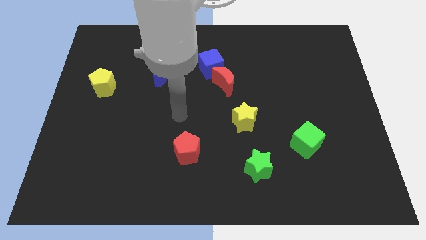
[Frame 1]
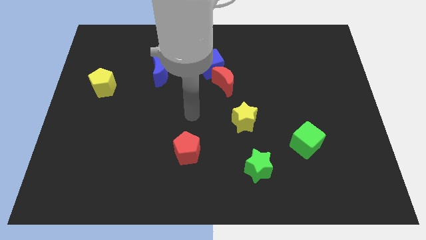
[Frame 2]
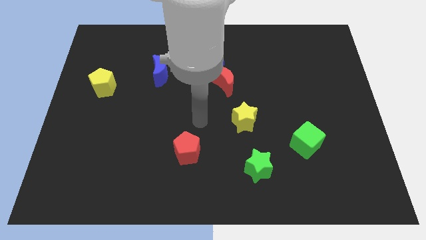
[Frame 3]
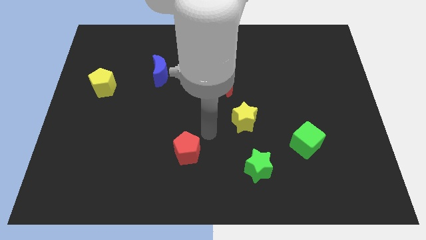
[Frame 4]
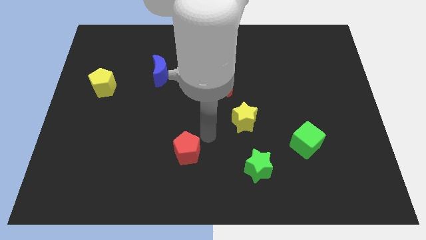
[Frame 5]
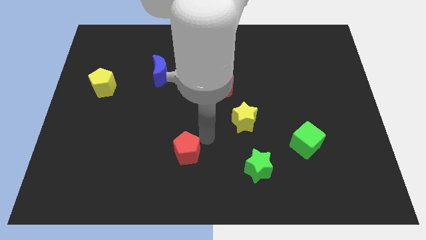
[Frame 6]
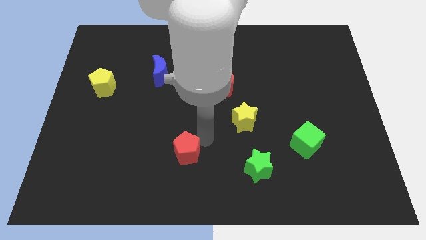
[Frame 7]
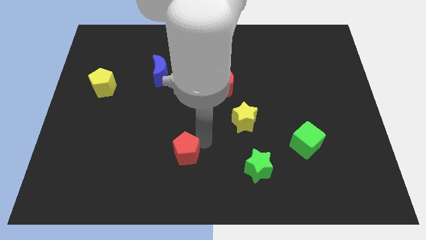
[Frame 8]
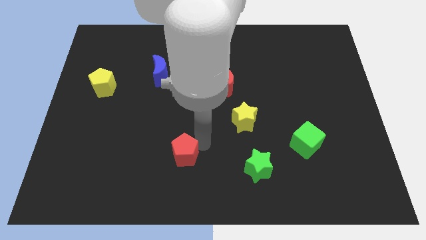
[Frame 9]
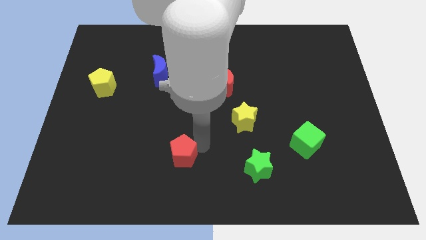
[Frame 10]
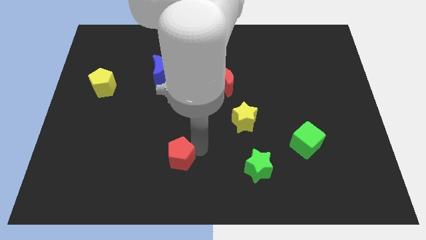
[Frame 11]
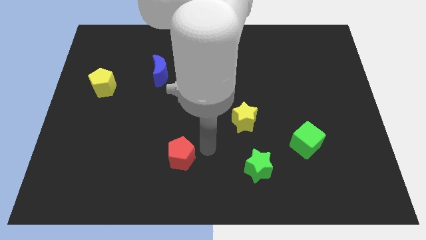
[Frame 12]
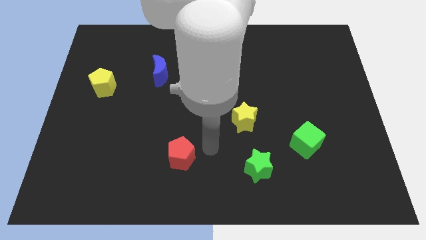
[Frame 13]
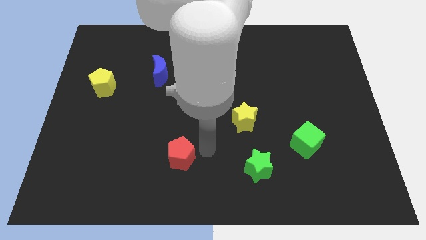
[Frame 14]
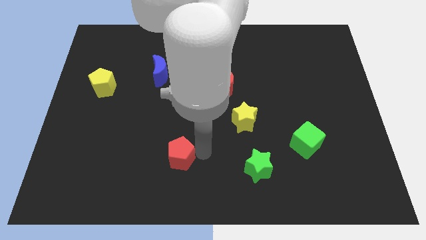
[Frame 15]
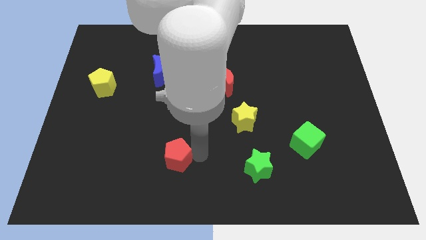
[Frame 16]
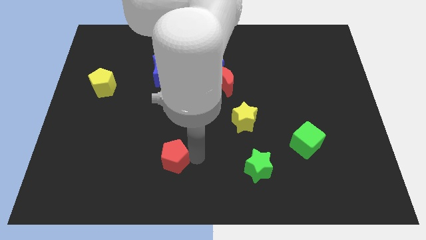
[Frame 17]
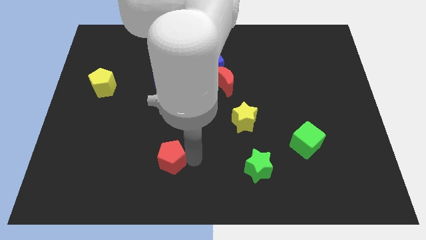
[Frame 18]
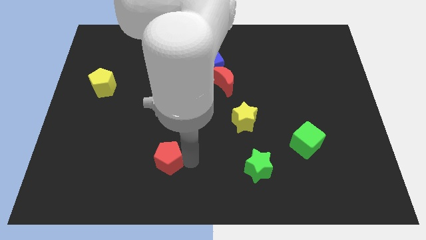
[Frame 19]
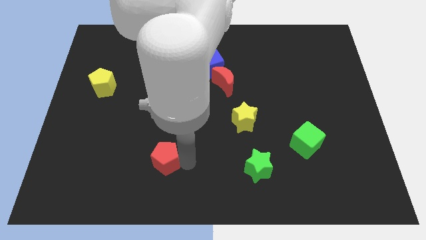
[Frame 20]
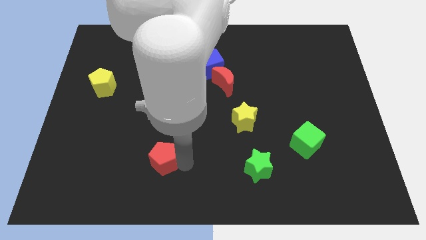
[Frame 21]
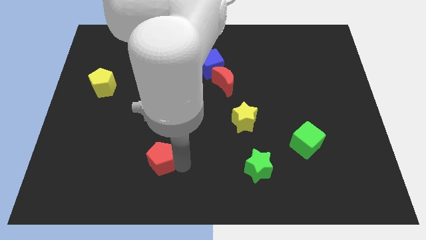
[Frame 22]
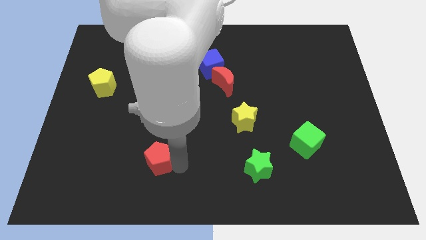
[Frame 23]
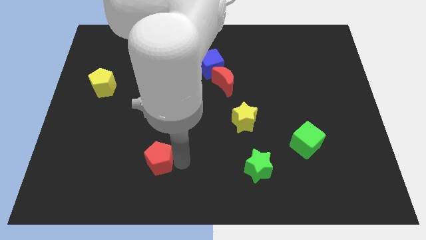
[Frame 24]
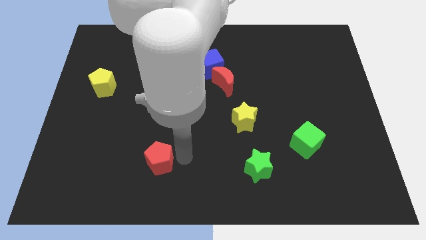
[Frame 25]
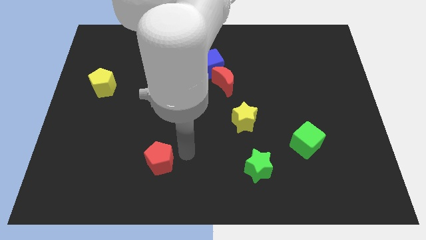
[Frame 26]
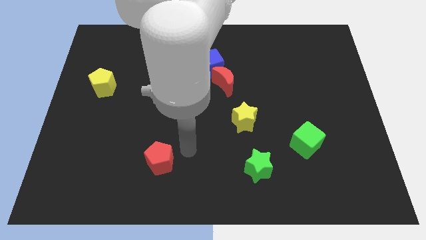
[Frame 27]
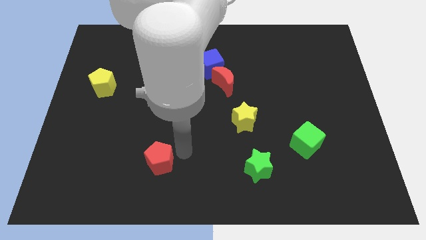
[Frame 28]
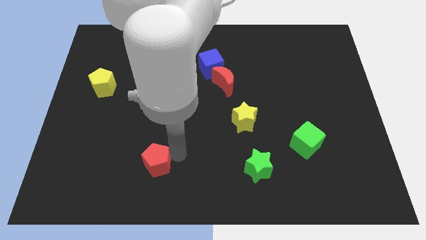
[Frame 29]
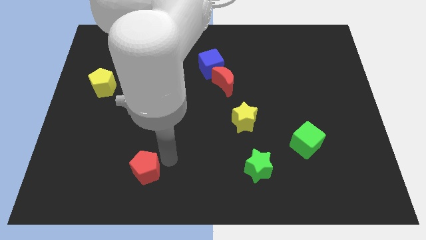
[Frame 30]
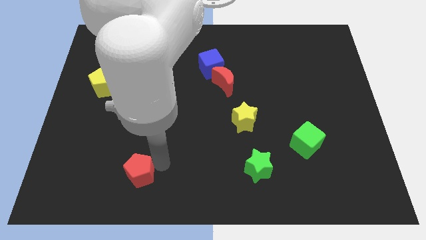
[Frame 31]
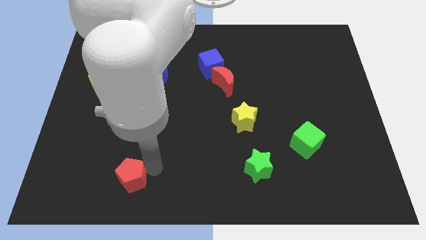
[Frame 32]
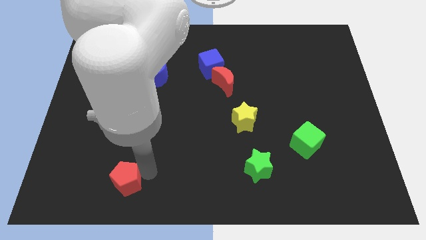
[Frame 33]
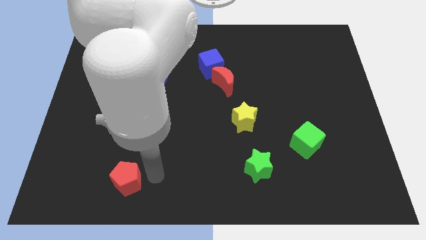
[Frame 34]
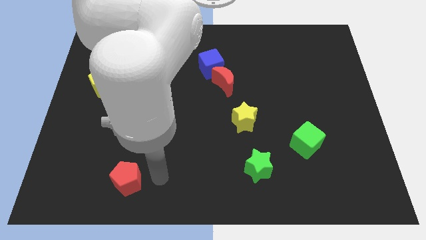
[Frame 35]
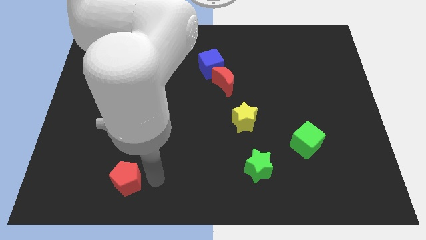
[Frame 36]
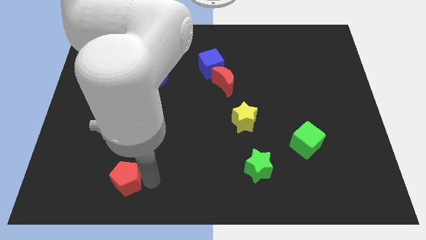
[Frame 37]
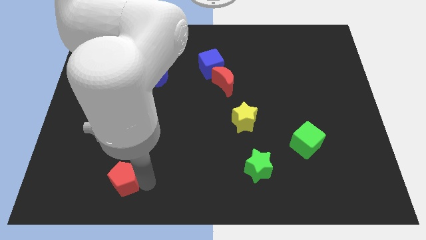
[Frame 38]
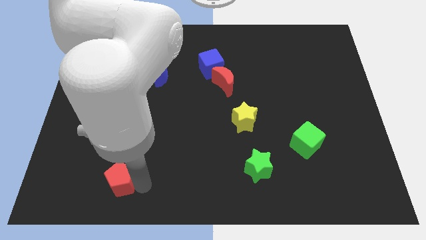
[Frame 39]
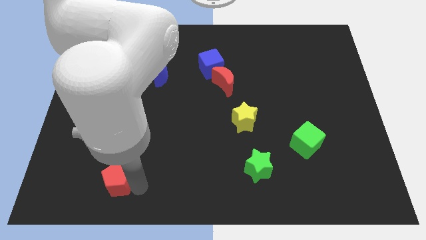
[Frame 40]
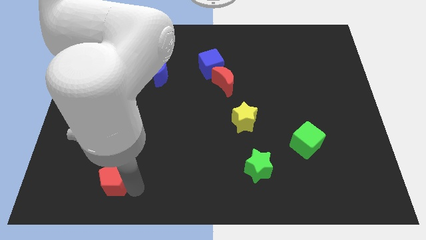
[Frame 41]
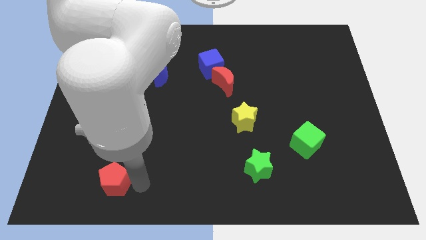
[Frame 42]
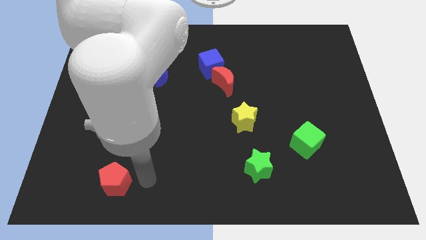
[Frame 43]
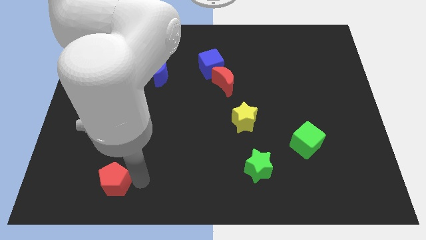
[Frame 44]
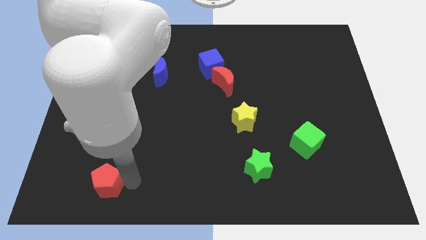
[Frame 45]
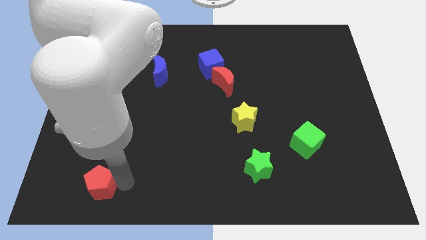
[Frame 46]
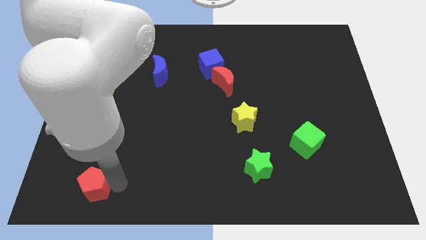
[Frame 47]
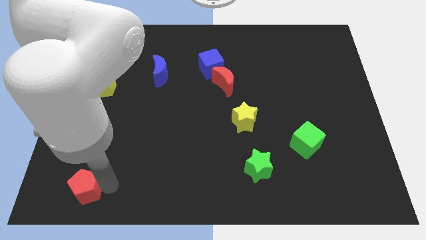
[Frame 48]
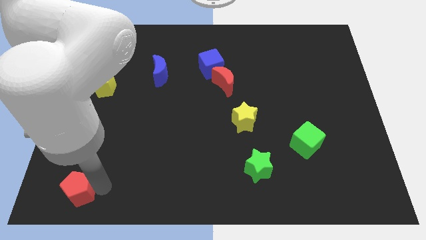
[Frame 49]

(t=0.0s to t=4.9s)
slide the red pentagon to the lower left corner

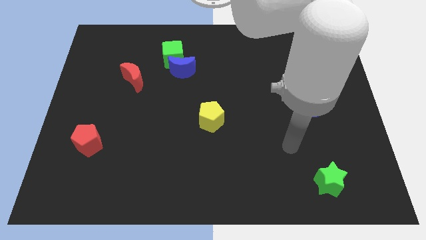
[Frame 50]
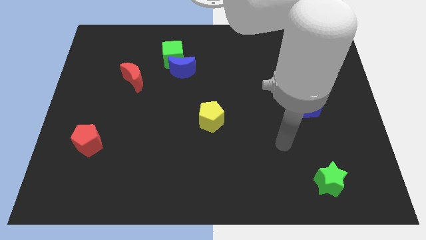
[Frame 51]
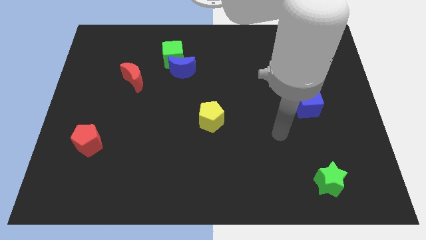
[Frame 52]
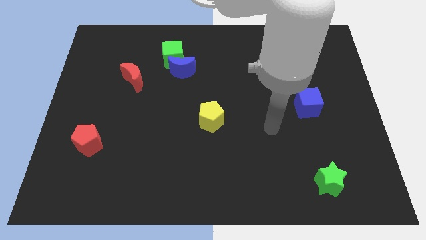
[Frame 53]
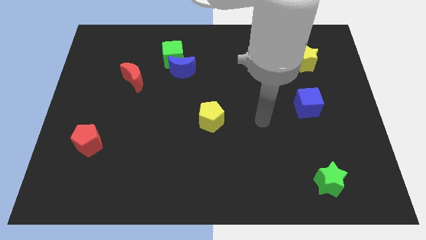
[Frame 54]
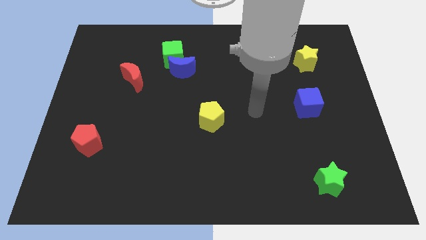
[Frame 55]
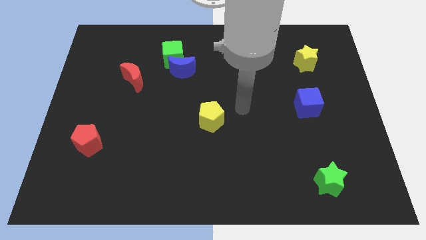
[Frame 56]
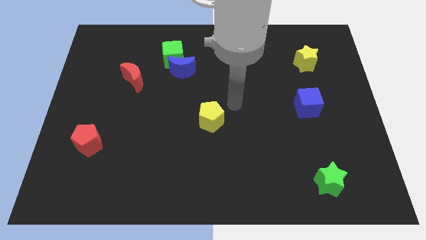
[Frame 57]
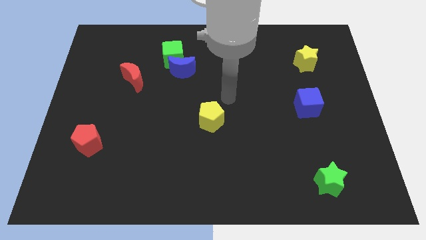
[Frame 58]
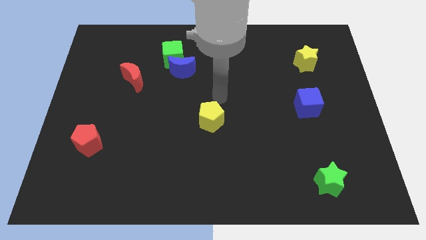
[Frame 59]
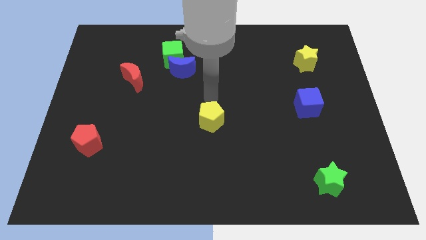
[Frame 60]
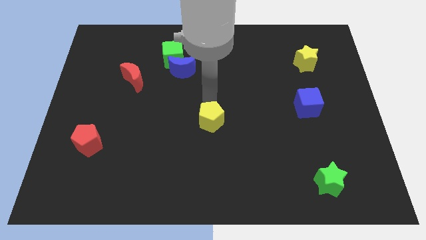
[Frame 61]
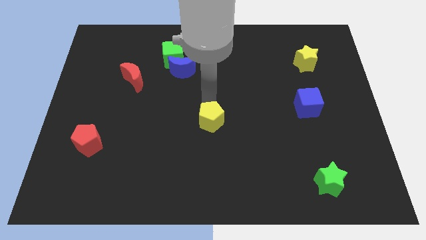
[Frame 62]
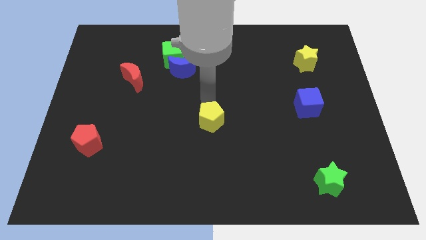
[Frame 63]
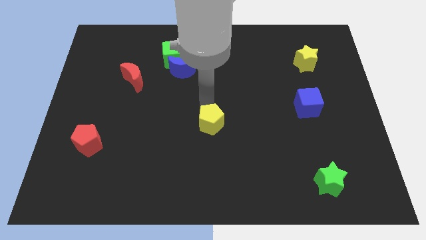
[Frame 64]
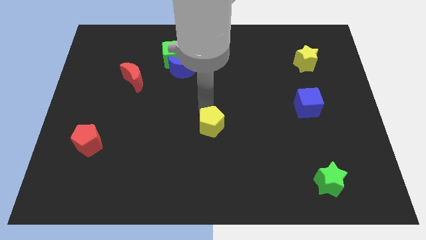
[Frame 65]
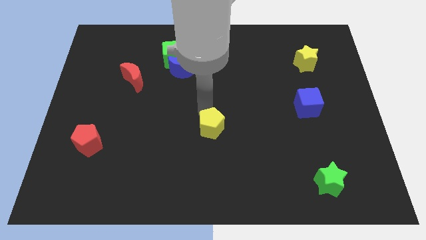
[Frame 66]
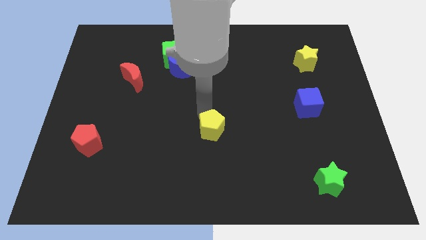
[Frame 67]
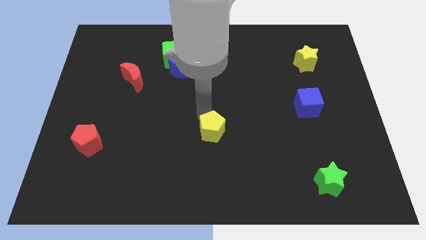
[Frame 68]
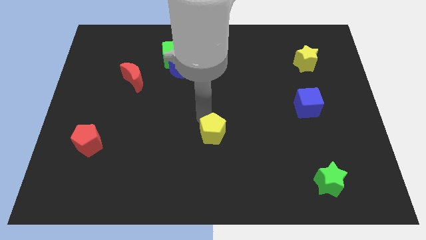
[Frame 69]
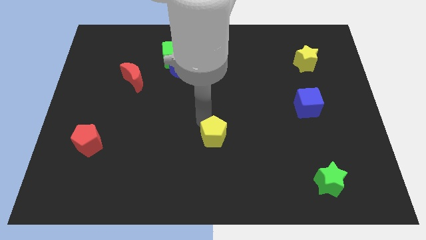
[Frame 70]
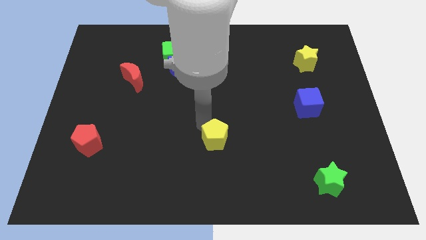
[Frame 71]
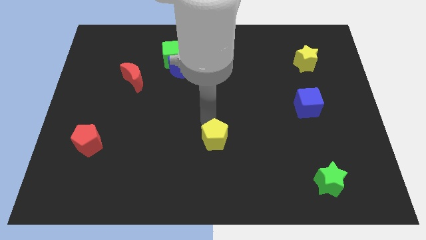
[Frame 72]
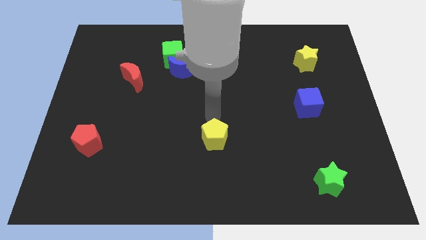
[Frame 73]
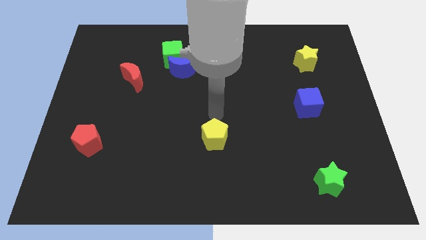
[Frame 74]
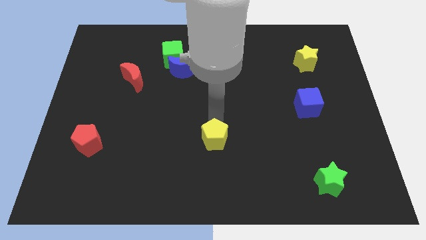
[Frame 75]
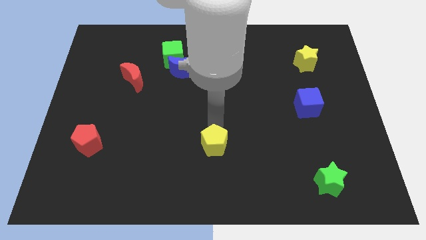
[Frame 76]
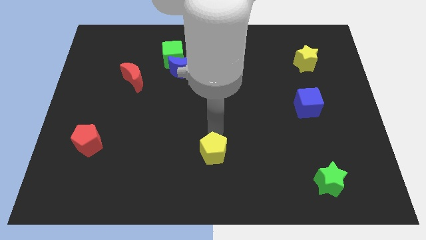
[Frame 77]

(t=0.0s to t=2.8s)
put the yellow pentagon to the bottom side
